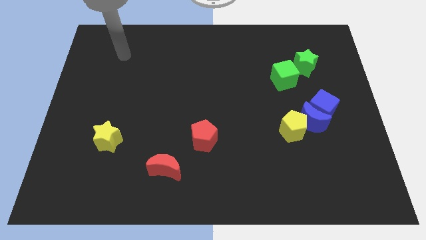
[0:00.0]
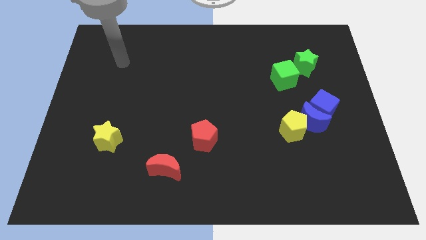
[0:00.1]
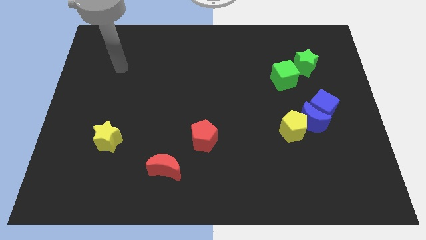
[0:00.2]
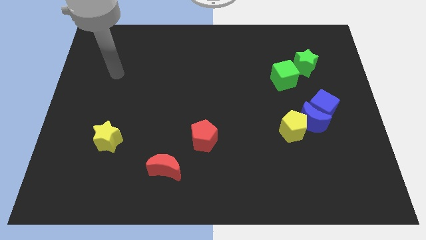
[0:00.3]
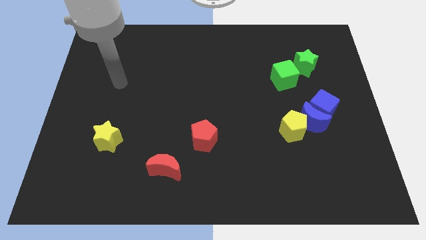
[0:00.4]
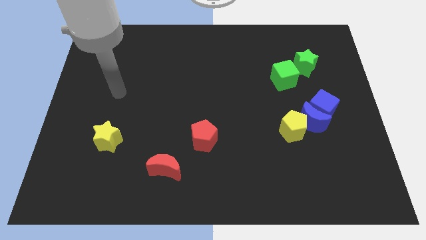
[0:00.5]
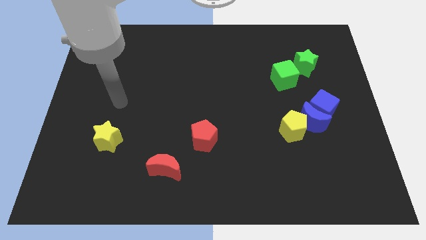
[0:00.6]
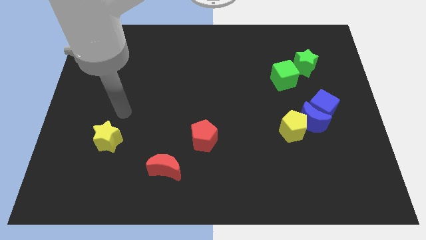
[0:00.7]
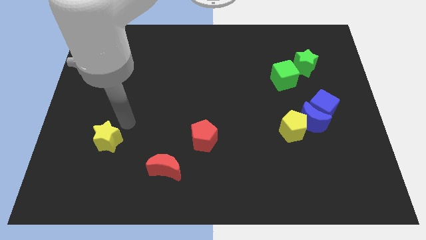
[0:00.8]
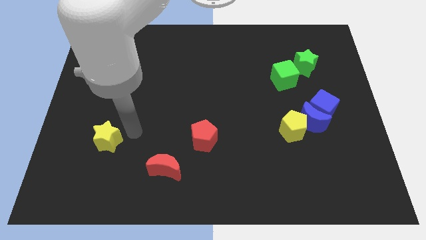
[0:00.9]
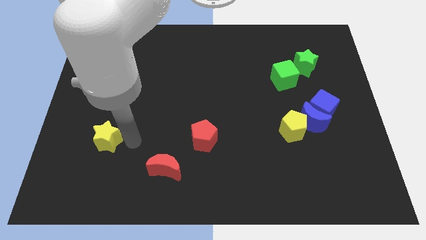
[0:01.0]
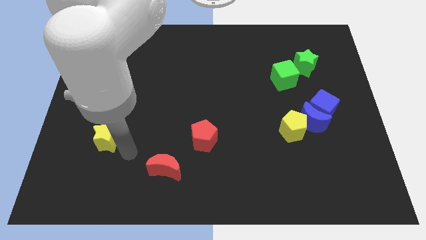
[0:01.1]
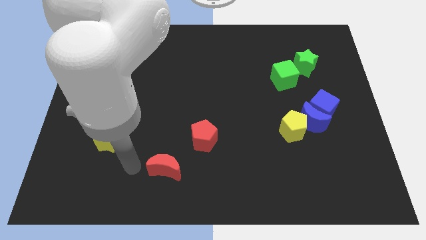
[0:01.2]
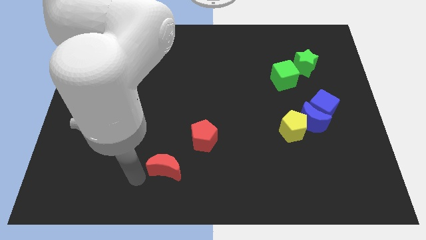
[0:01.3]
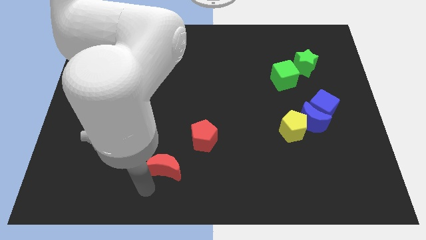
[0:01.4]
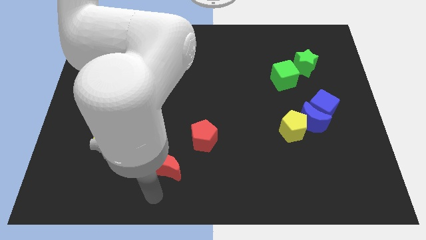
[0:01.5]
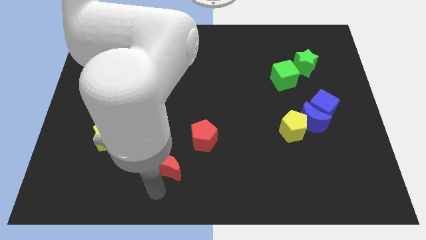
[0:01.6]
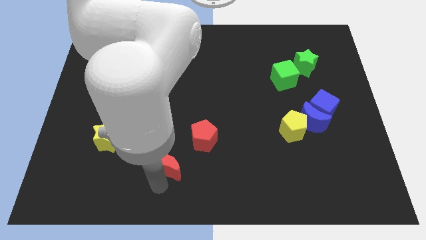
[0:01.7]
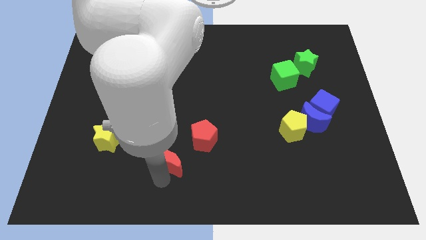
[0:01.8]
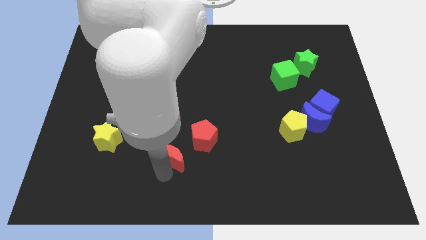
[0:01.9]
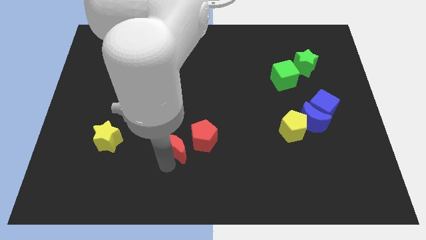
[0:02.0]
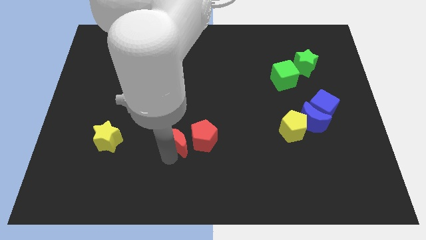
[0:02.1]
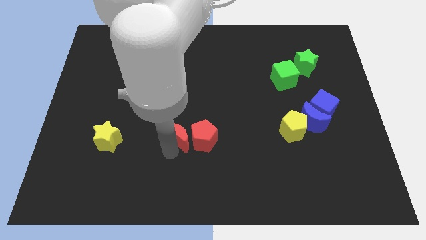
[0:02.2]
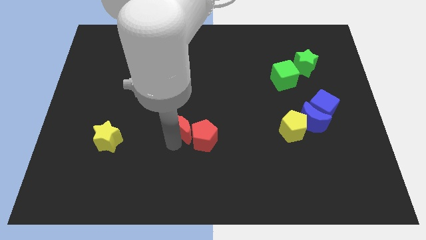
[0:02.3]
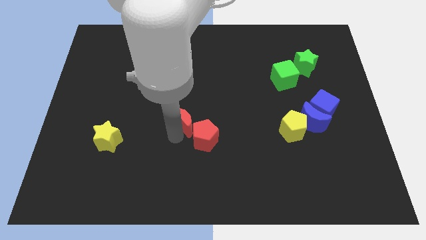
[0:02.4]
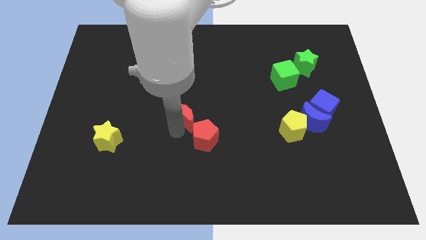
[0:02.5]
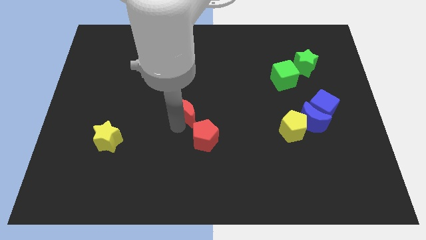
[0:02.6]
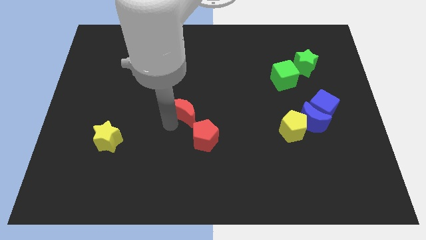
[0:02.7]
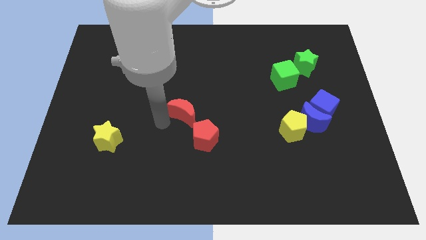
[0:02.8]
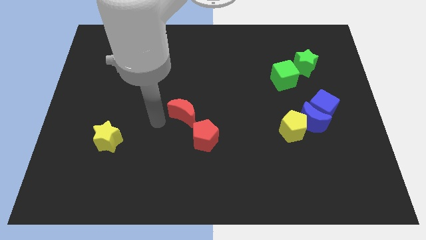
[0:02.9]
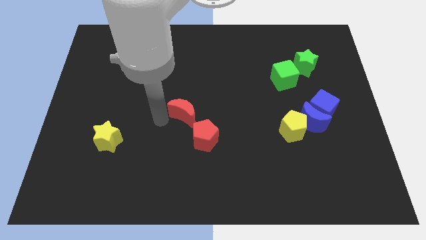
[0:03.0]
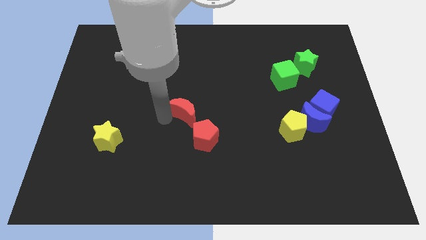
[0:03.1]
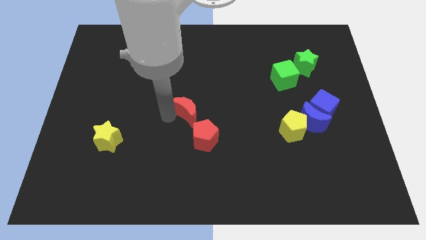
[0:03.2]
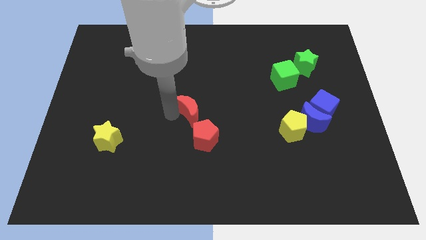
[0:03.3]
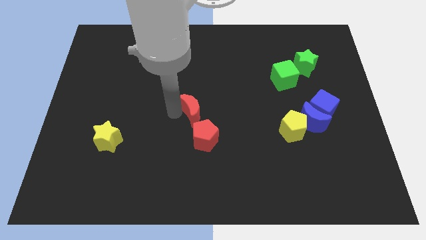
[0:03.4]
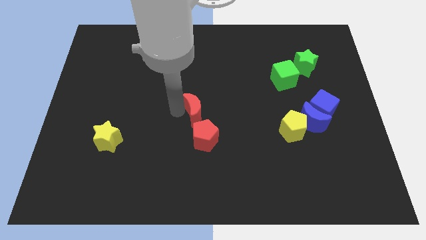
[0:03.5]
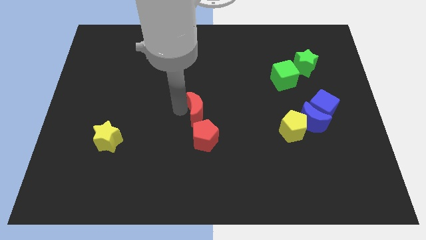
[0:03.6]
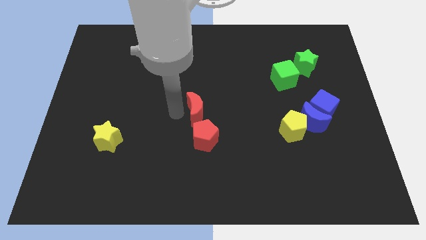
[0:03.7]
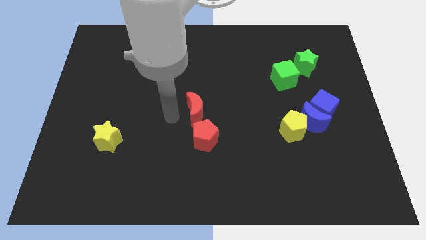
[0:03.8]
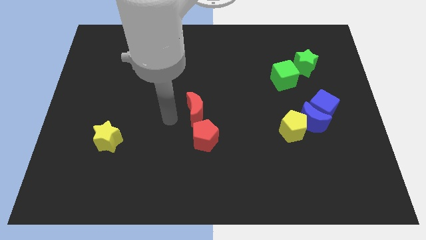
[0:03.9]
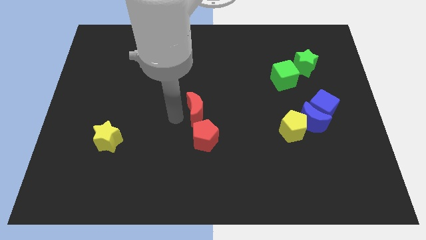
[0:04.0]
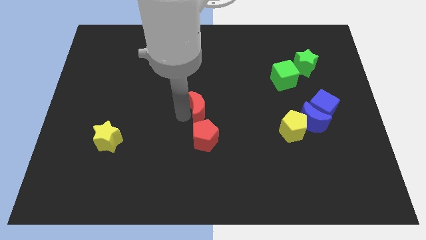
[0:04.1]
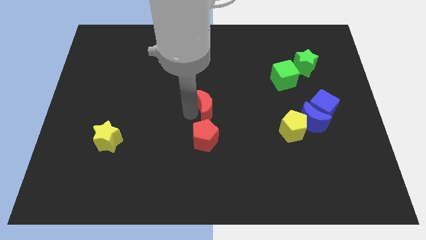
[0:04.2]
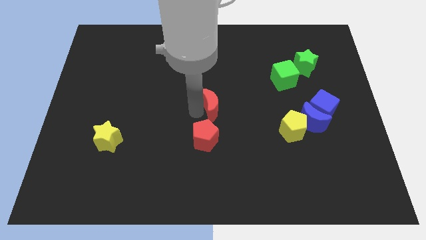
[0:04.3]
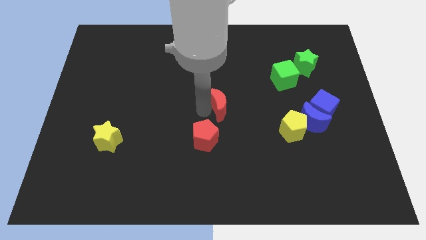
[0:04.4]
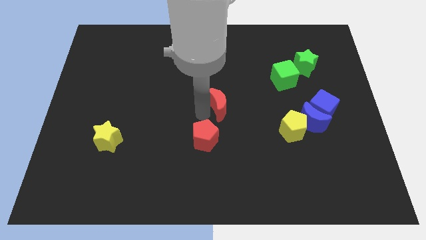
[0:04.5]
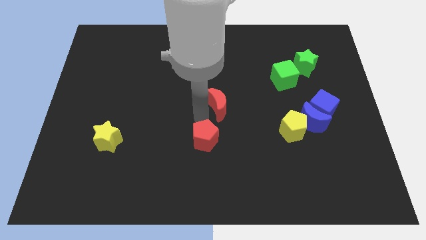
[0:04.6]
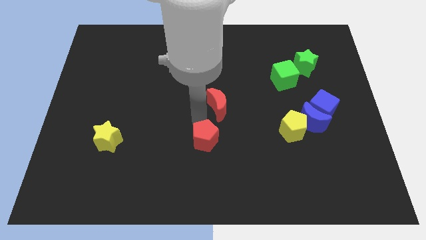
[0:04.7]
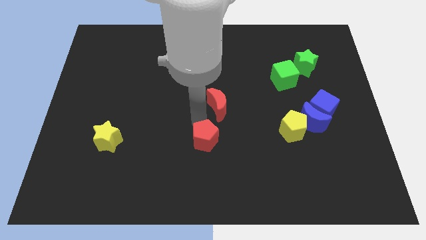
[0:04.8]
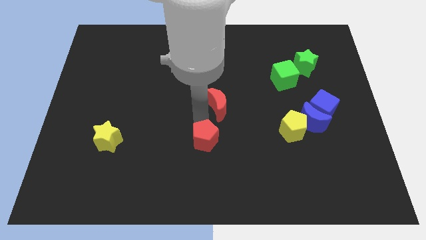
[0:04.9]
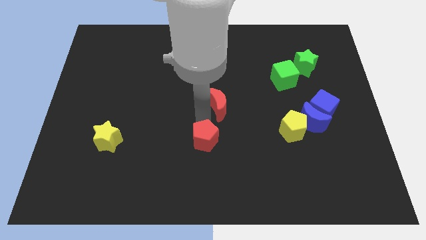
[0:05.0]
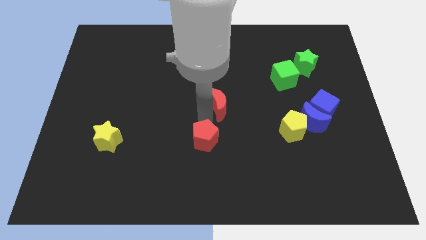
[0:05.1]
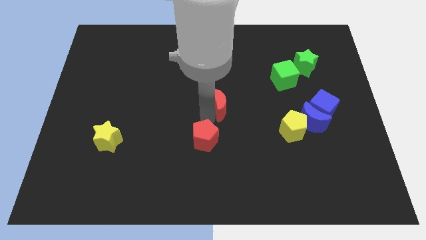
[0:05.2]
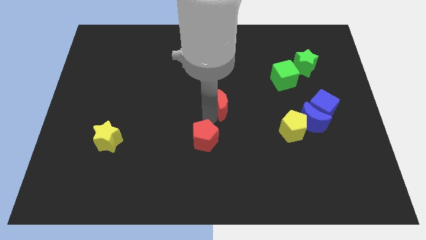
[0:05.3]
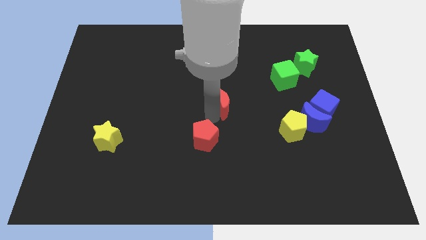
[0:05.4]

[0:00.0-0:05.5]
move the red moon diagonally upwards and to the right

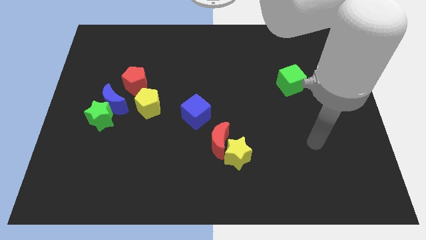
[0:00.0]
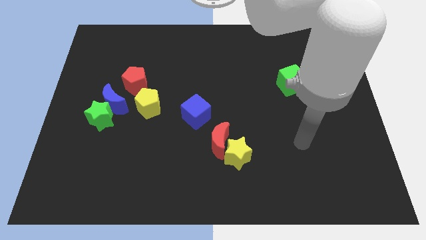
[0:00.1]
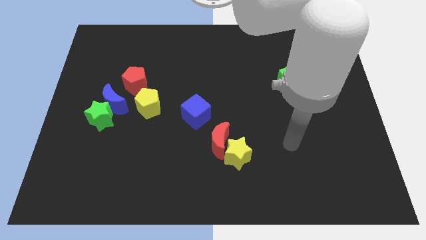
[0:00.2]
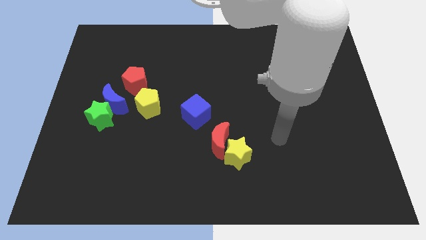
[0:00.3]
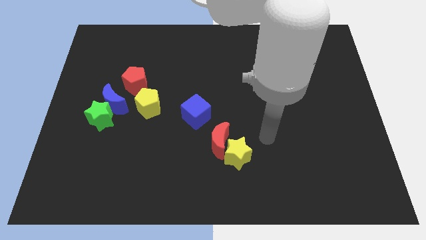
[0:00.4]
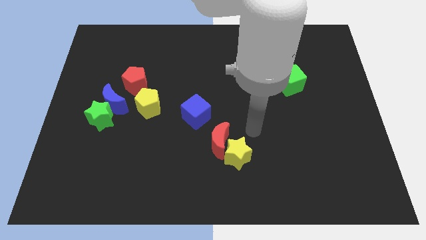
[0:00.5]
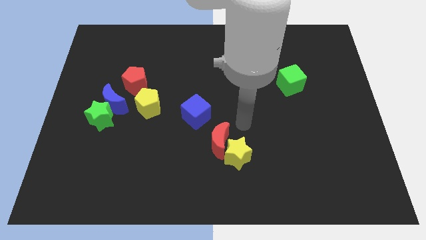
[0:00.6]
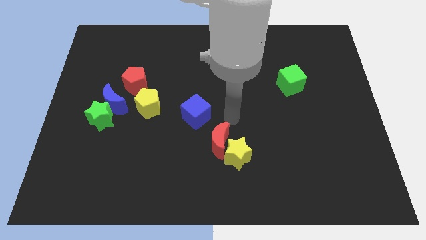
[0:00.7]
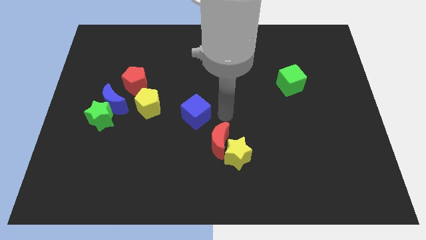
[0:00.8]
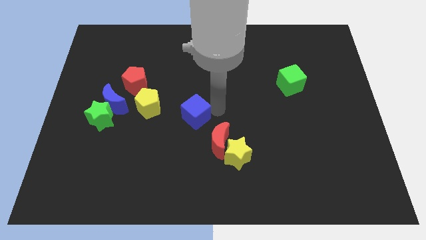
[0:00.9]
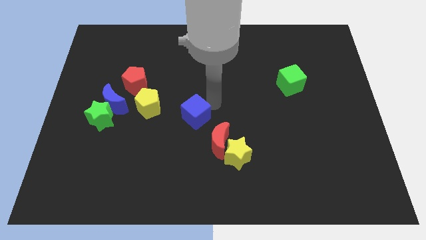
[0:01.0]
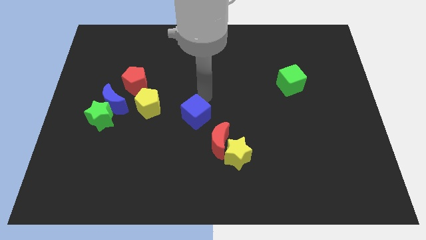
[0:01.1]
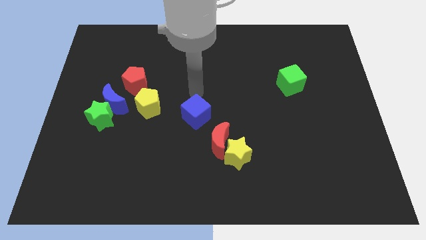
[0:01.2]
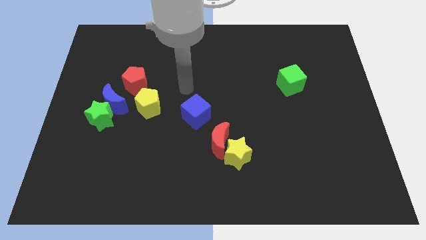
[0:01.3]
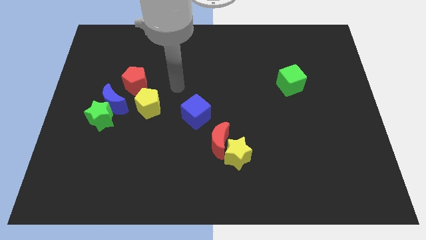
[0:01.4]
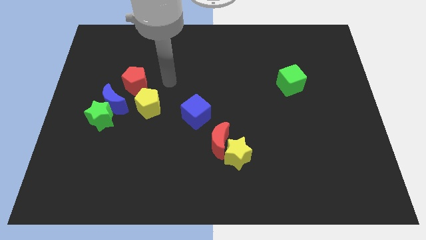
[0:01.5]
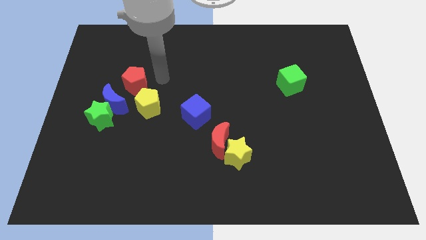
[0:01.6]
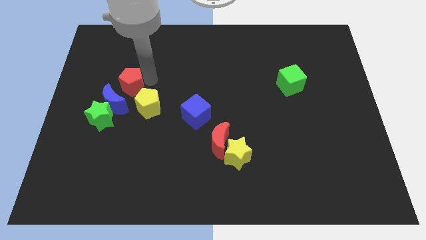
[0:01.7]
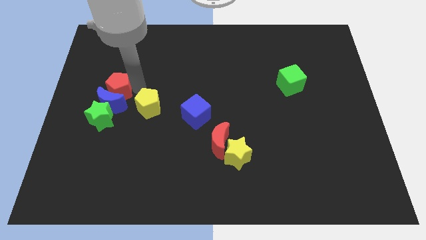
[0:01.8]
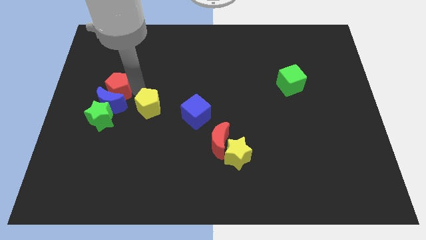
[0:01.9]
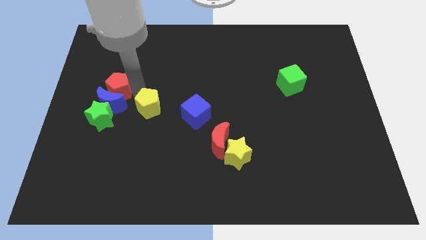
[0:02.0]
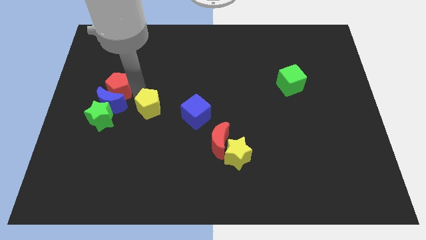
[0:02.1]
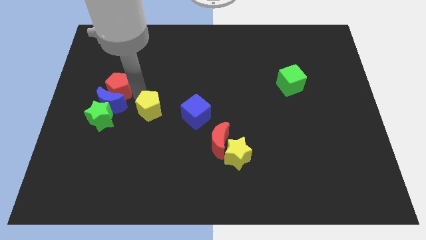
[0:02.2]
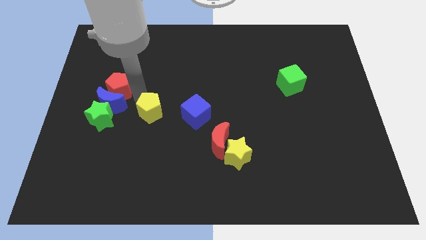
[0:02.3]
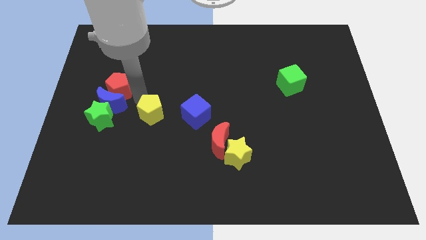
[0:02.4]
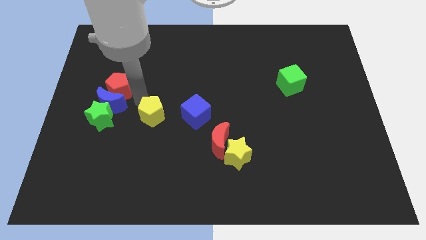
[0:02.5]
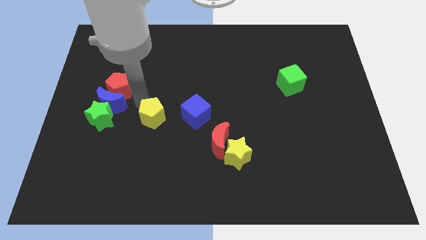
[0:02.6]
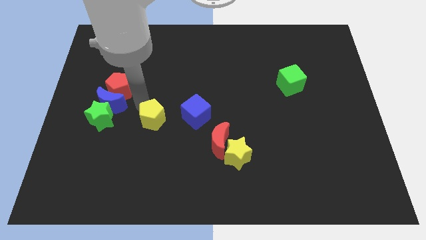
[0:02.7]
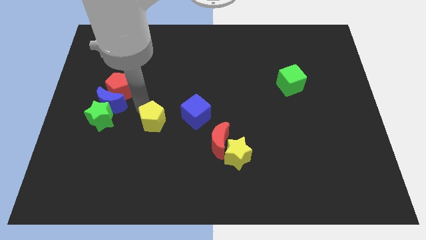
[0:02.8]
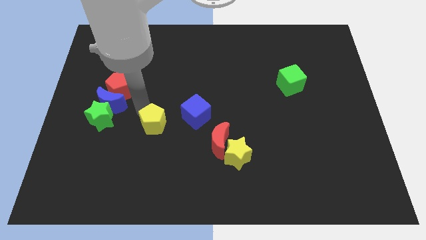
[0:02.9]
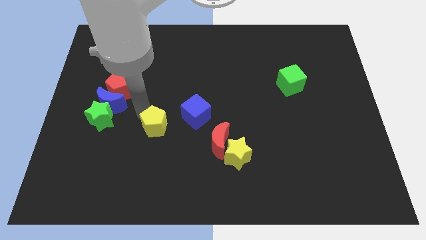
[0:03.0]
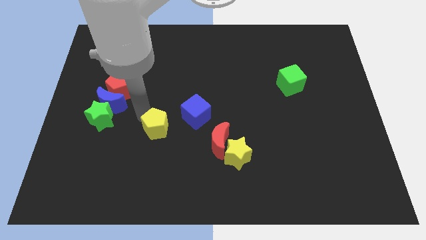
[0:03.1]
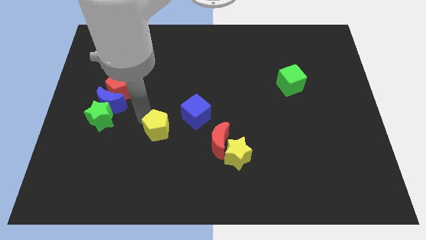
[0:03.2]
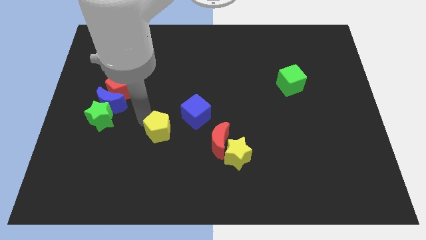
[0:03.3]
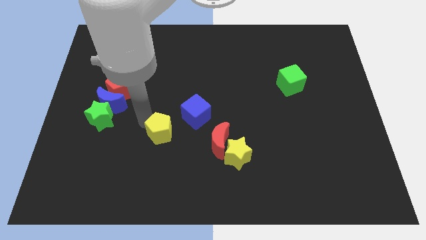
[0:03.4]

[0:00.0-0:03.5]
slightly push the yellow pentagon downwards and to the right diagonally
